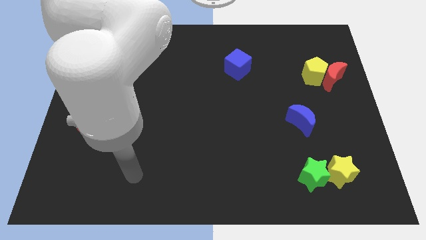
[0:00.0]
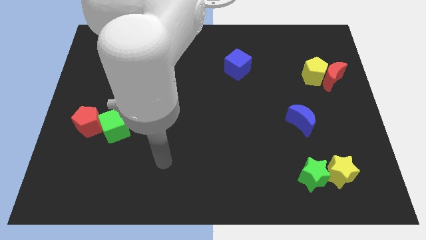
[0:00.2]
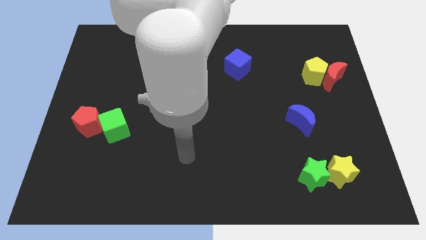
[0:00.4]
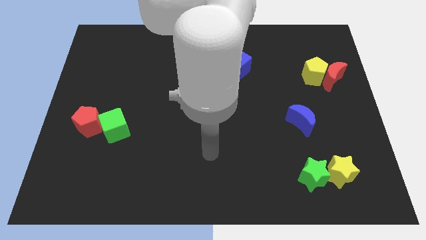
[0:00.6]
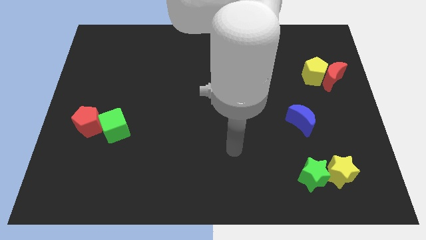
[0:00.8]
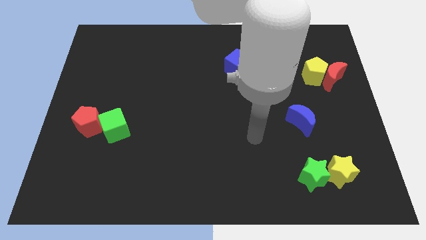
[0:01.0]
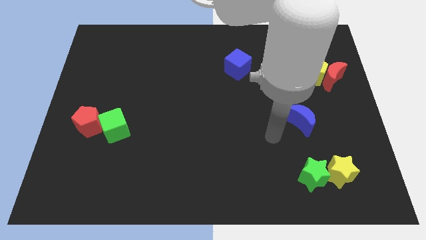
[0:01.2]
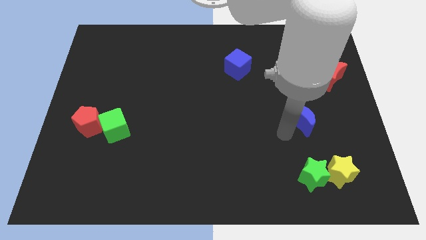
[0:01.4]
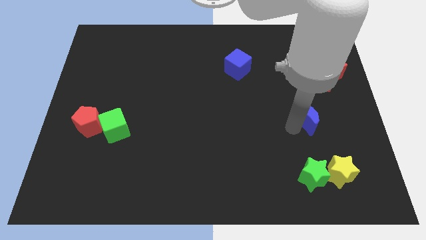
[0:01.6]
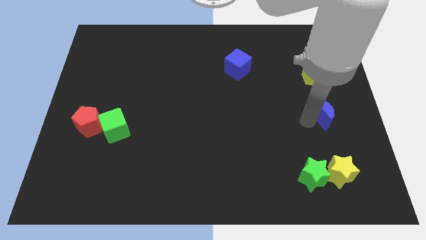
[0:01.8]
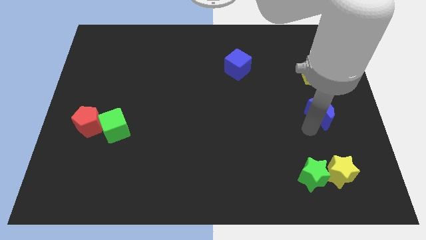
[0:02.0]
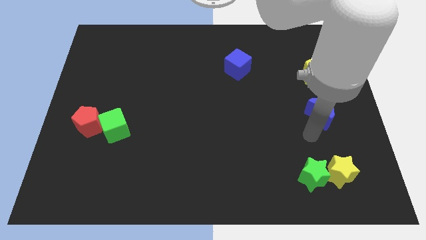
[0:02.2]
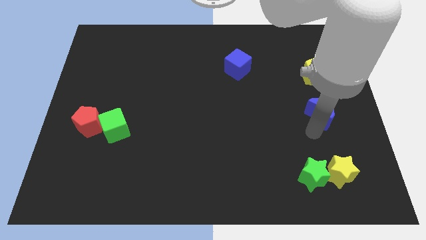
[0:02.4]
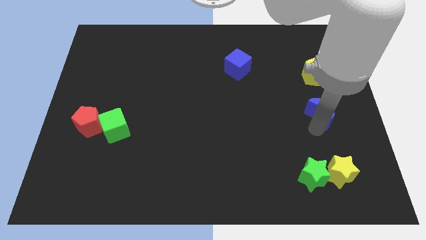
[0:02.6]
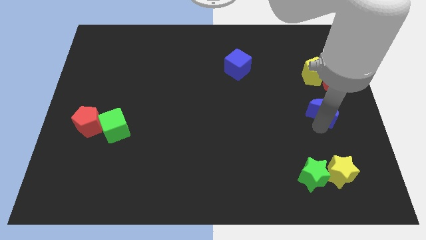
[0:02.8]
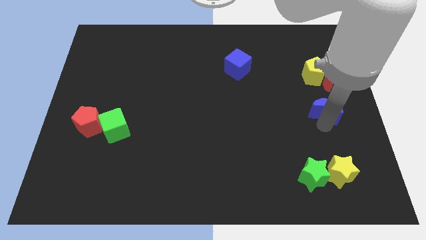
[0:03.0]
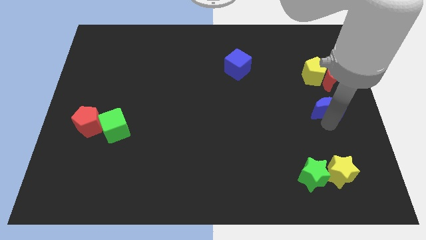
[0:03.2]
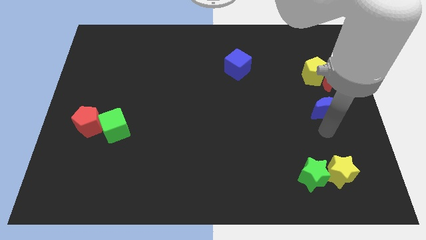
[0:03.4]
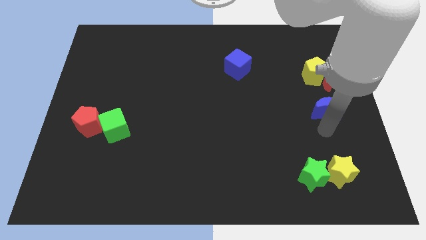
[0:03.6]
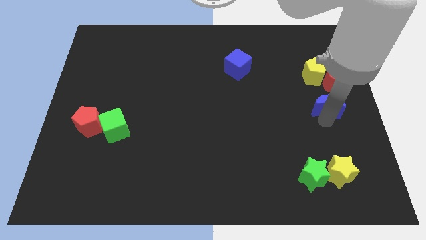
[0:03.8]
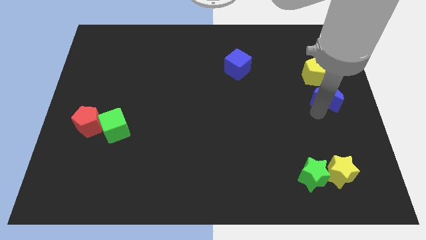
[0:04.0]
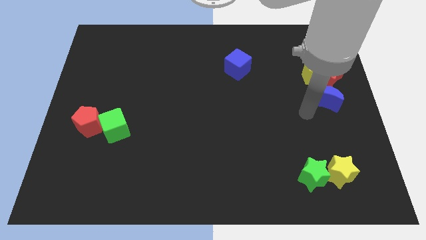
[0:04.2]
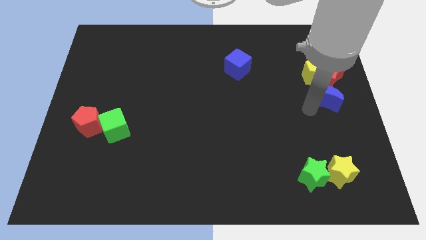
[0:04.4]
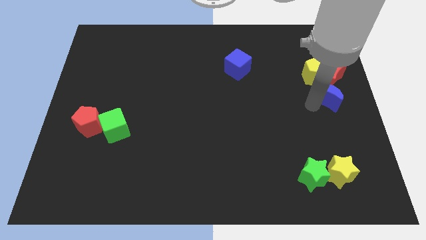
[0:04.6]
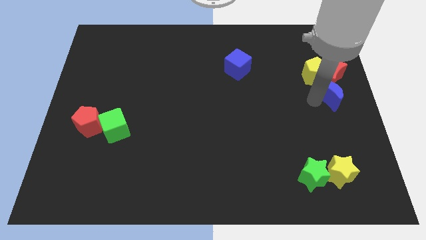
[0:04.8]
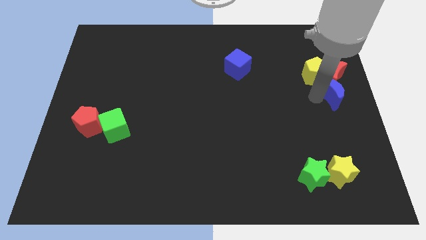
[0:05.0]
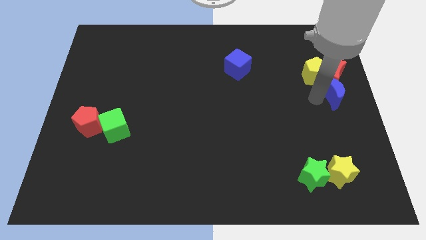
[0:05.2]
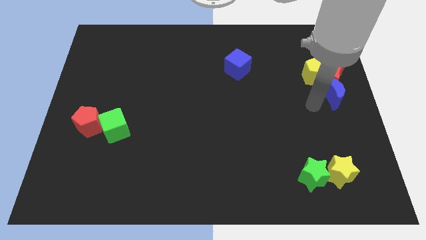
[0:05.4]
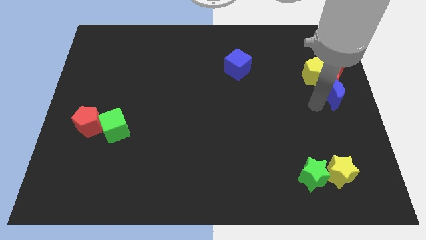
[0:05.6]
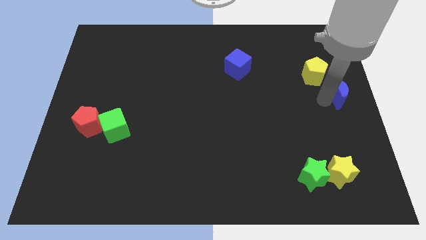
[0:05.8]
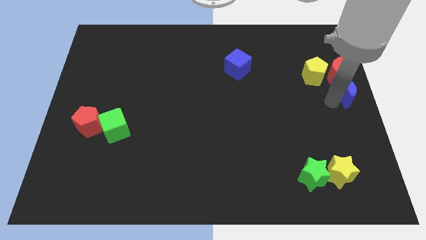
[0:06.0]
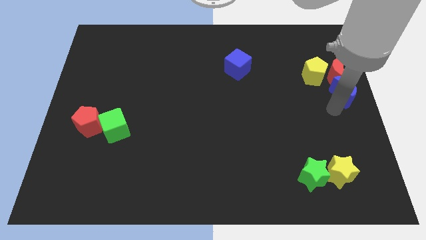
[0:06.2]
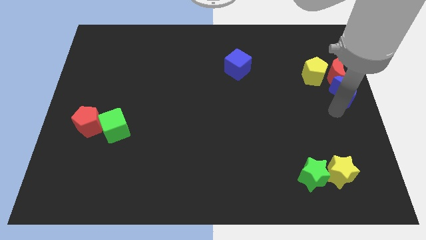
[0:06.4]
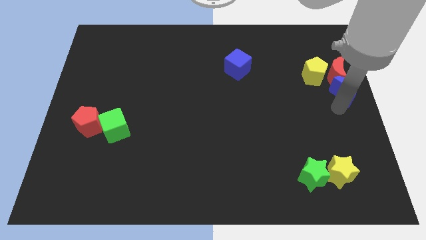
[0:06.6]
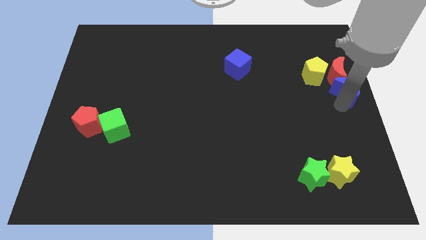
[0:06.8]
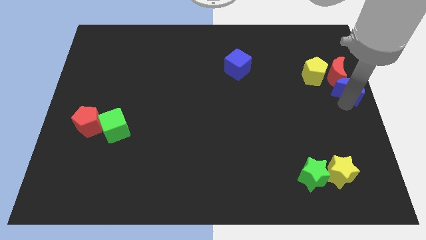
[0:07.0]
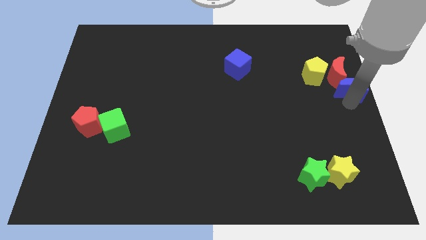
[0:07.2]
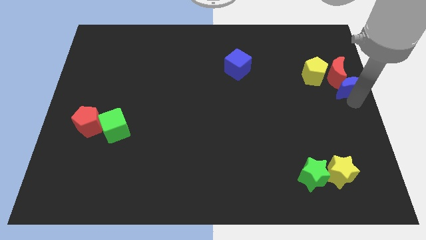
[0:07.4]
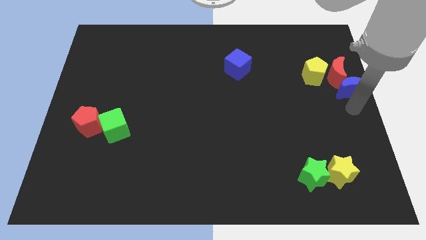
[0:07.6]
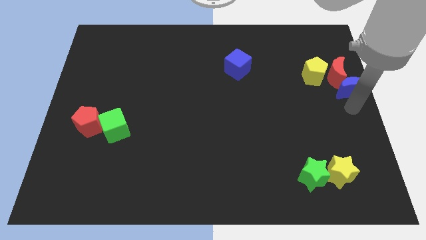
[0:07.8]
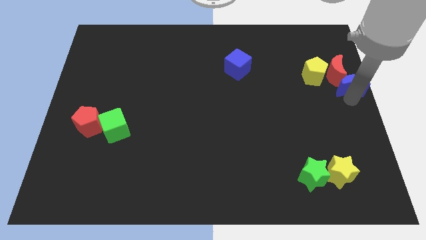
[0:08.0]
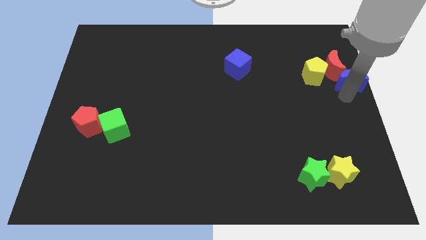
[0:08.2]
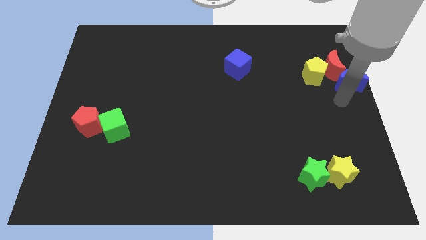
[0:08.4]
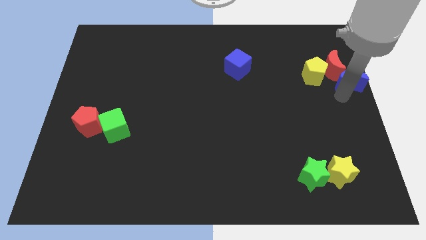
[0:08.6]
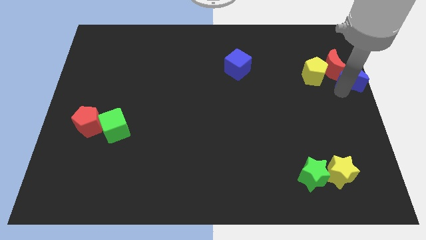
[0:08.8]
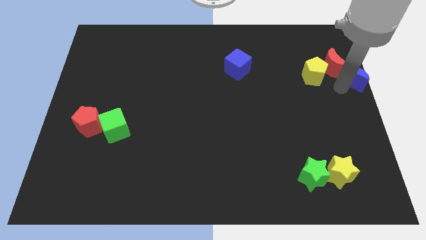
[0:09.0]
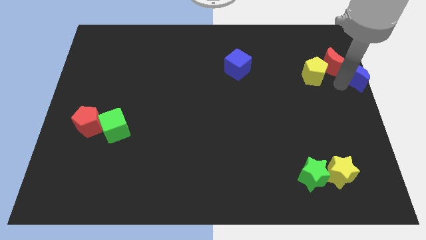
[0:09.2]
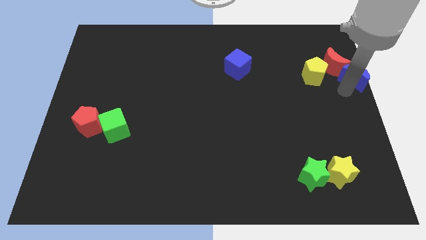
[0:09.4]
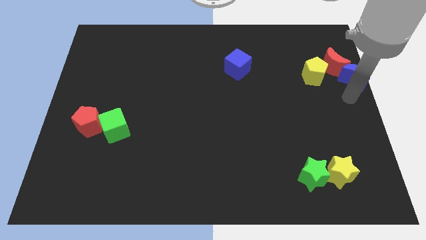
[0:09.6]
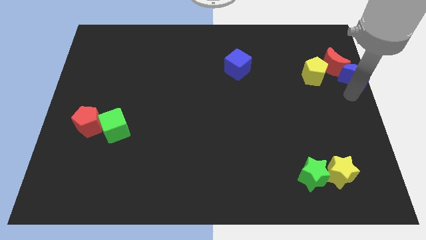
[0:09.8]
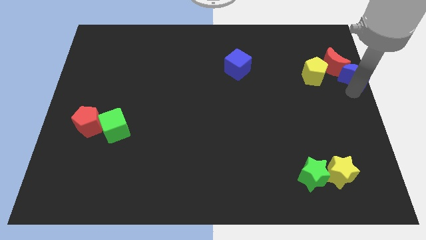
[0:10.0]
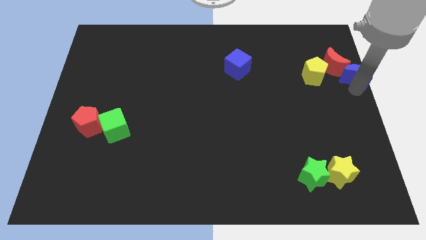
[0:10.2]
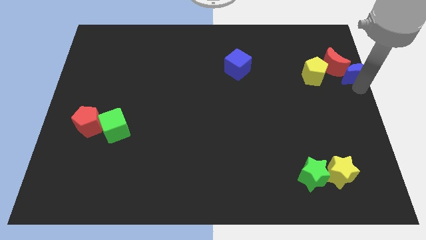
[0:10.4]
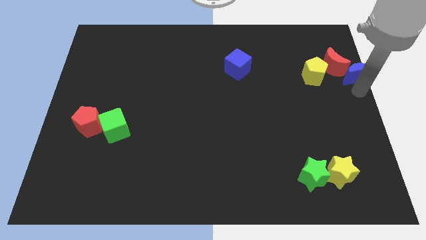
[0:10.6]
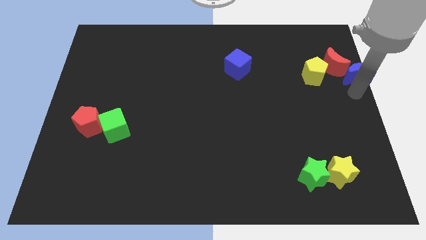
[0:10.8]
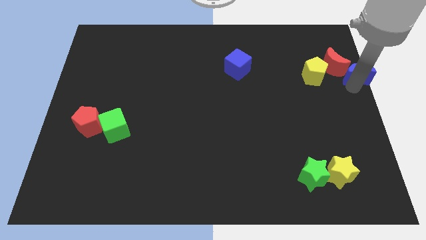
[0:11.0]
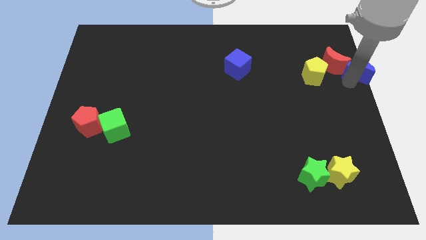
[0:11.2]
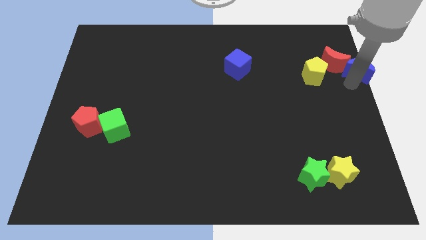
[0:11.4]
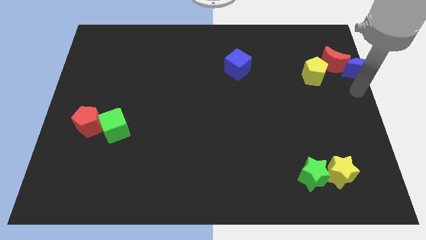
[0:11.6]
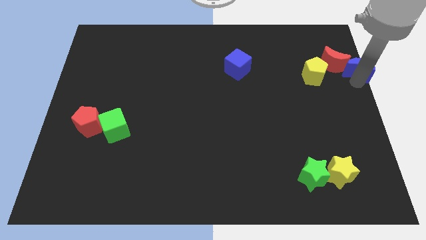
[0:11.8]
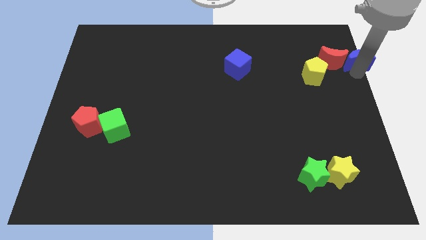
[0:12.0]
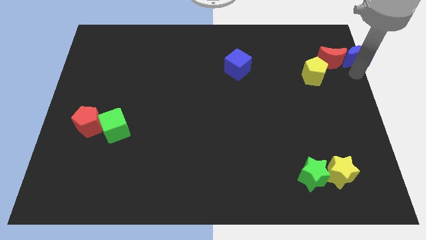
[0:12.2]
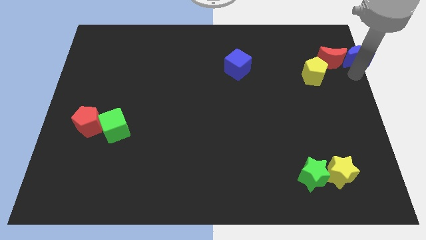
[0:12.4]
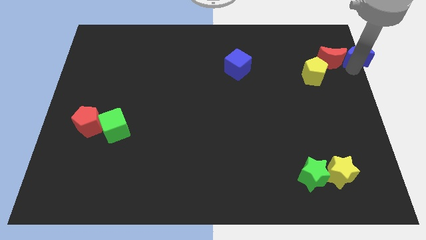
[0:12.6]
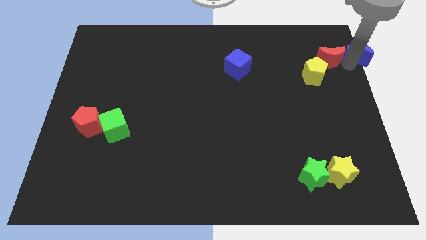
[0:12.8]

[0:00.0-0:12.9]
slide the blue moon to the top right corner
